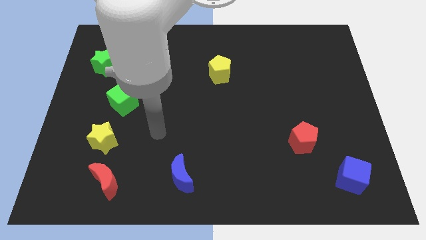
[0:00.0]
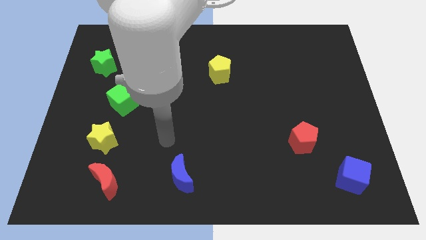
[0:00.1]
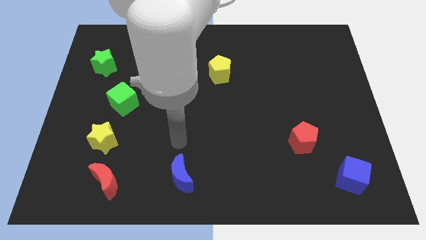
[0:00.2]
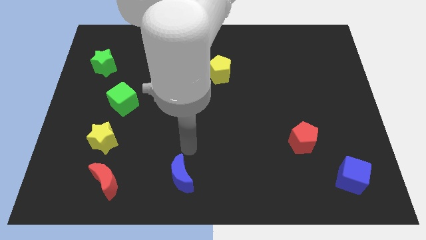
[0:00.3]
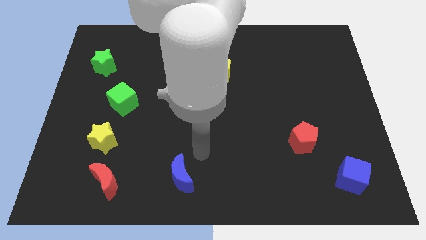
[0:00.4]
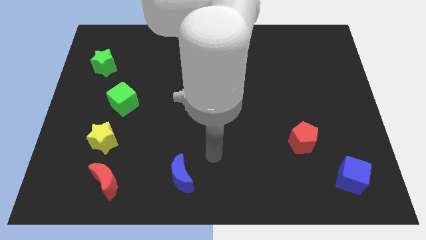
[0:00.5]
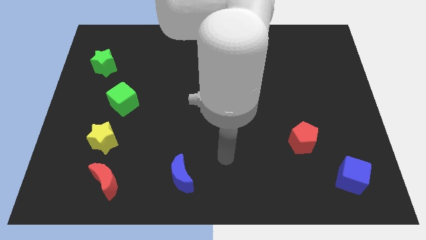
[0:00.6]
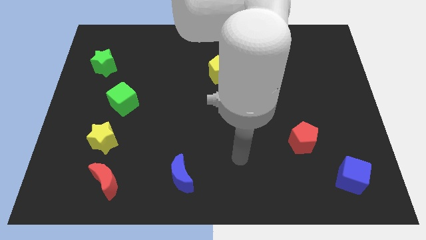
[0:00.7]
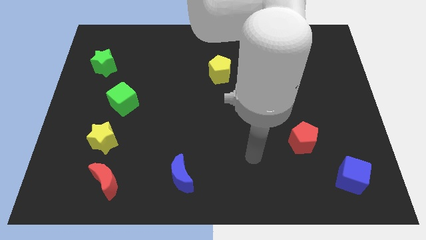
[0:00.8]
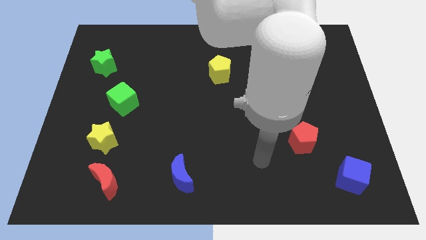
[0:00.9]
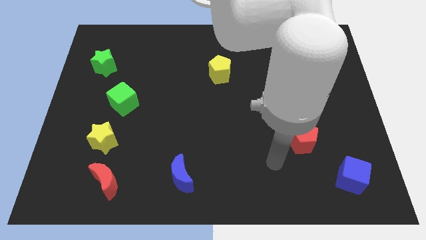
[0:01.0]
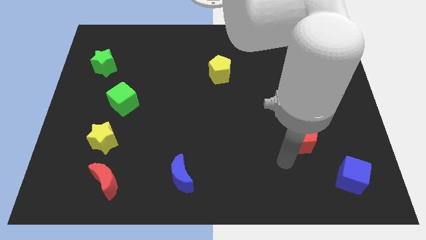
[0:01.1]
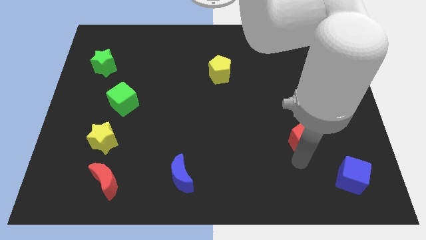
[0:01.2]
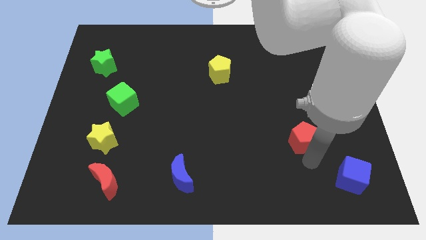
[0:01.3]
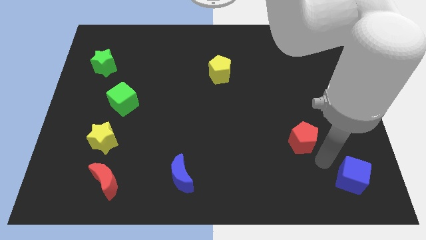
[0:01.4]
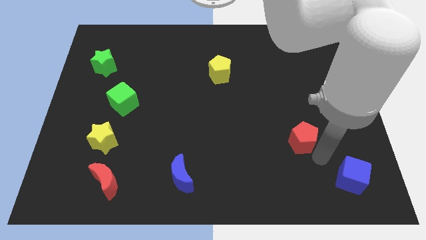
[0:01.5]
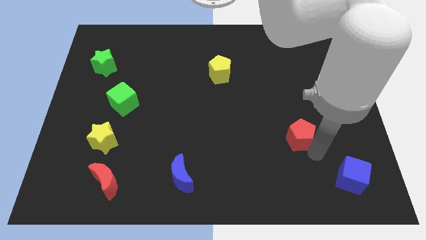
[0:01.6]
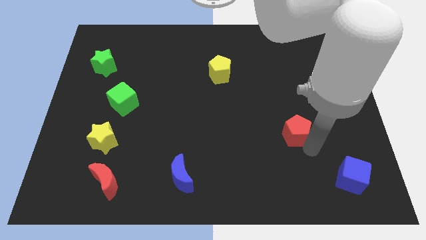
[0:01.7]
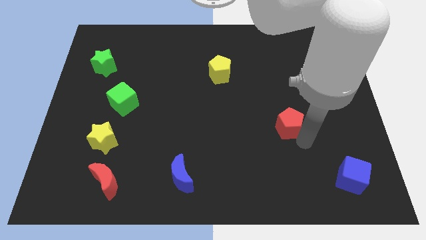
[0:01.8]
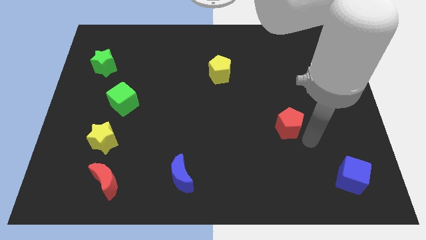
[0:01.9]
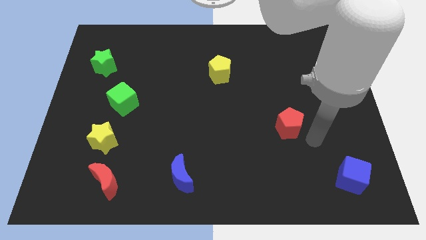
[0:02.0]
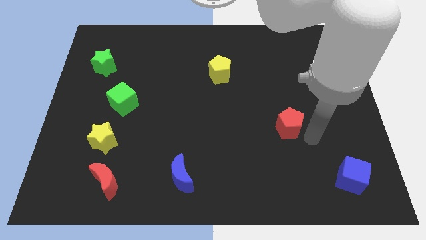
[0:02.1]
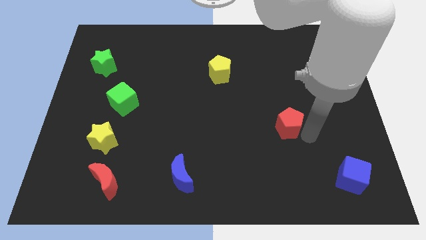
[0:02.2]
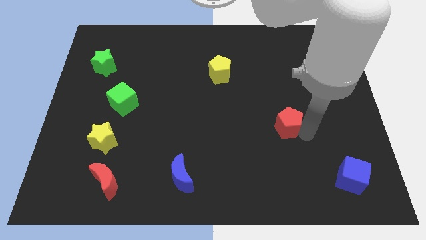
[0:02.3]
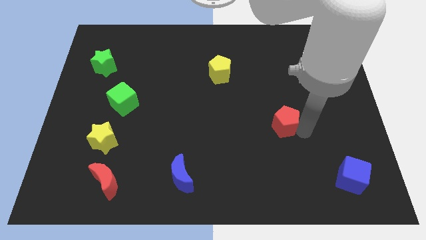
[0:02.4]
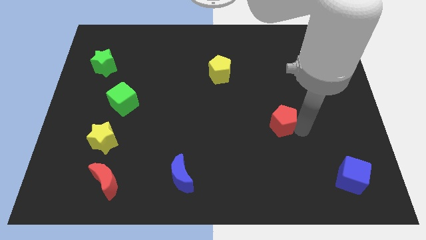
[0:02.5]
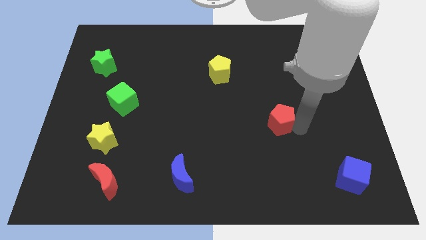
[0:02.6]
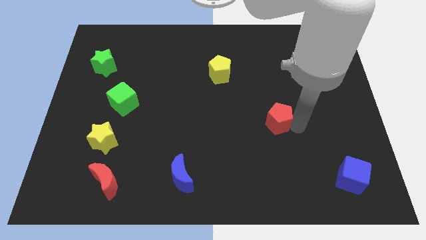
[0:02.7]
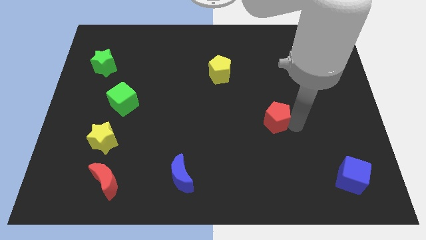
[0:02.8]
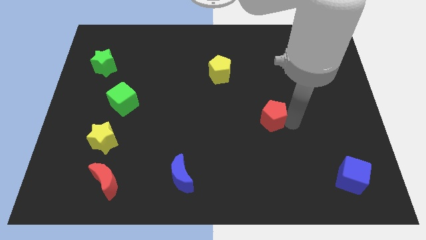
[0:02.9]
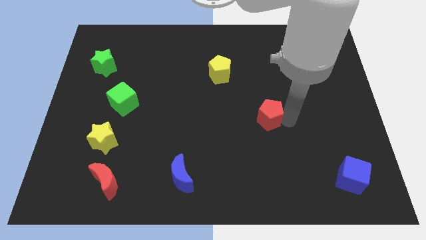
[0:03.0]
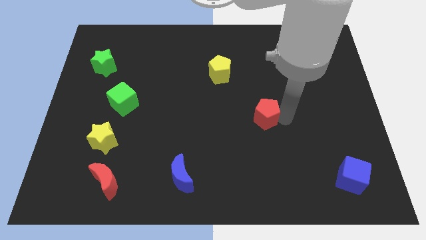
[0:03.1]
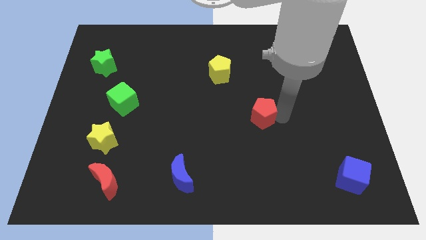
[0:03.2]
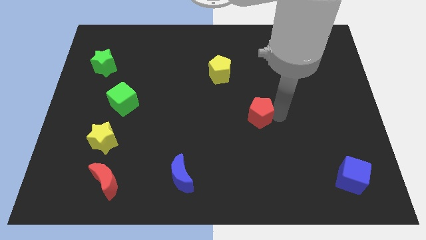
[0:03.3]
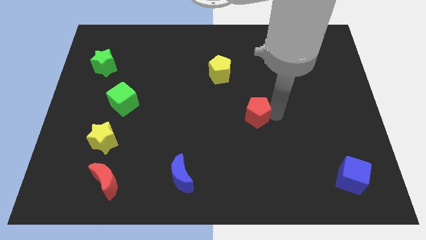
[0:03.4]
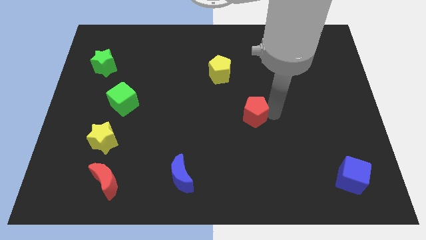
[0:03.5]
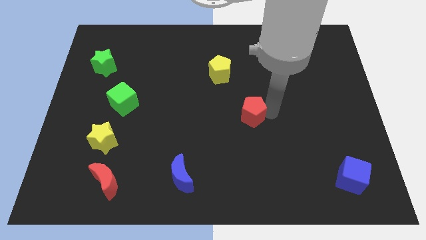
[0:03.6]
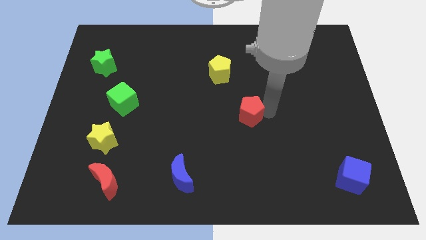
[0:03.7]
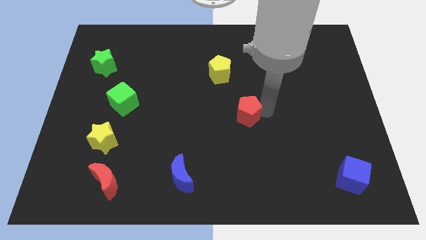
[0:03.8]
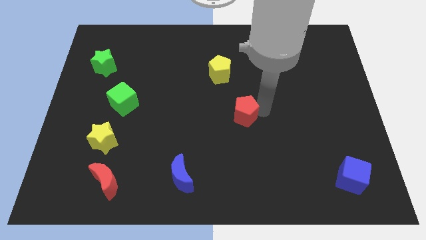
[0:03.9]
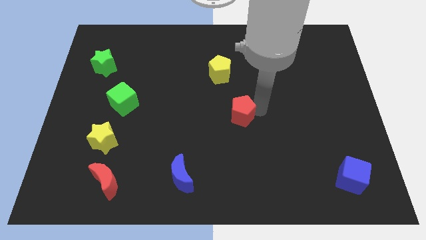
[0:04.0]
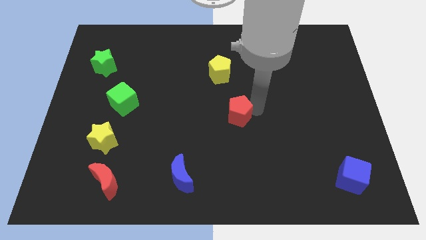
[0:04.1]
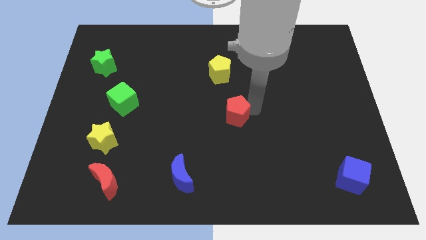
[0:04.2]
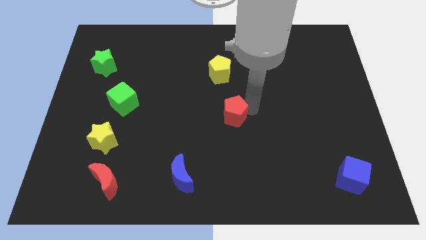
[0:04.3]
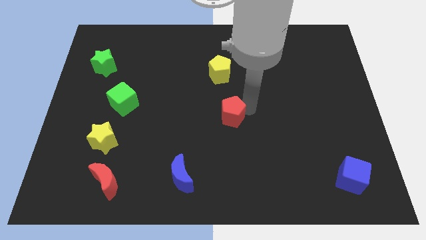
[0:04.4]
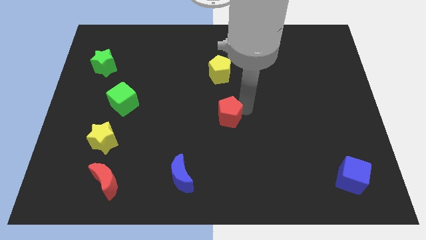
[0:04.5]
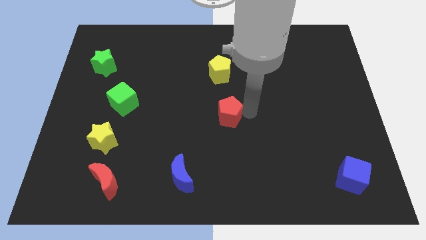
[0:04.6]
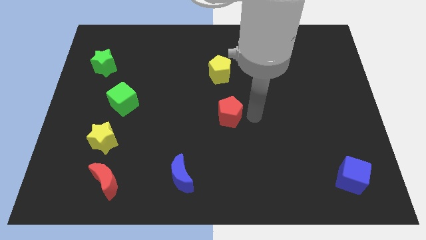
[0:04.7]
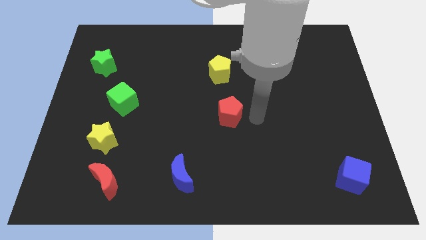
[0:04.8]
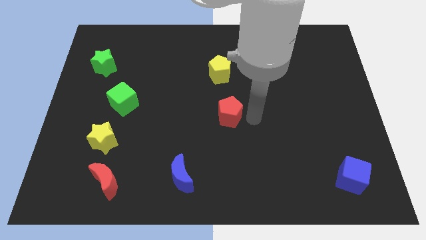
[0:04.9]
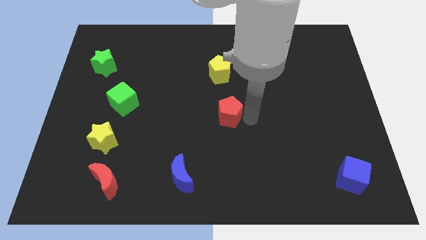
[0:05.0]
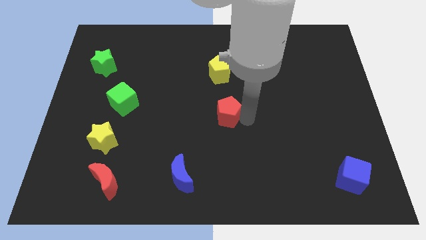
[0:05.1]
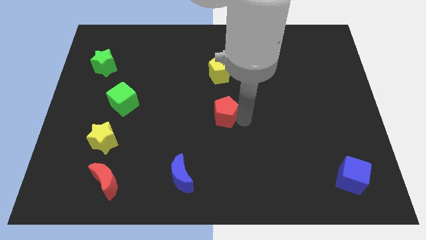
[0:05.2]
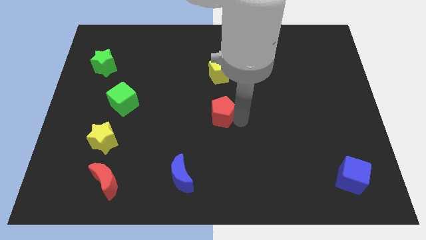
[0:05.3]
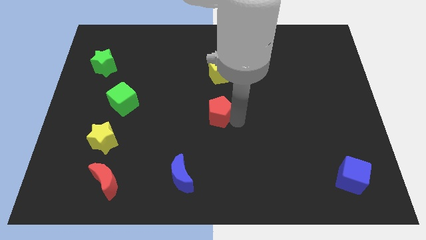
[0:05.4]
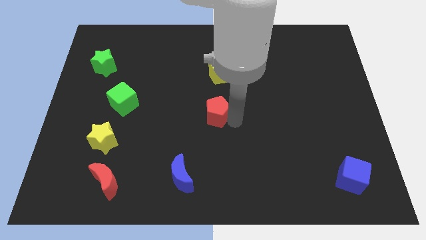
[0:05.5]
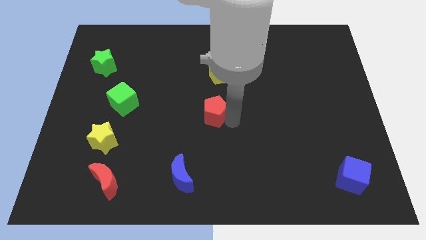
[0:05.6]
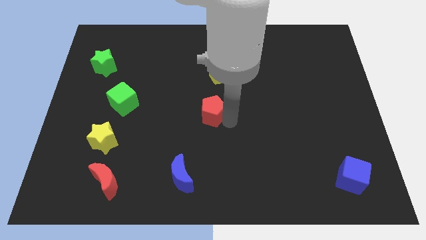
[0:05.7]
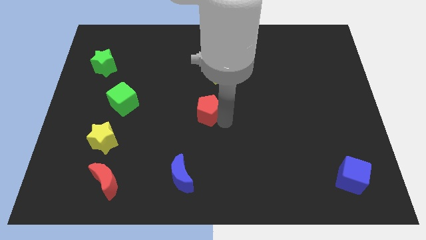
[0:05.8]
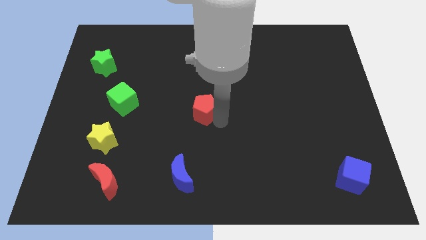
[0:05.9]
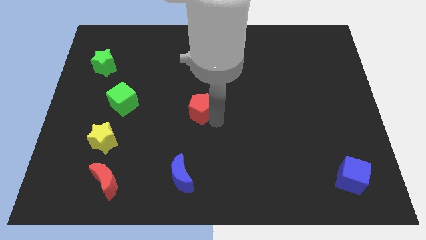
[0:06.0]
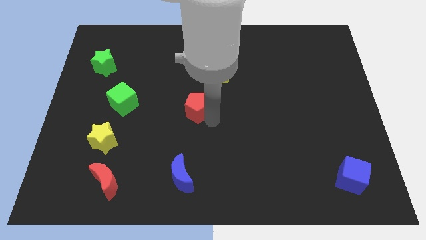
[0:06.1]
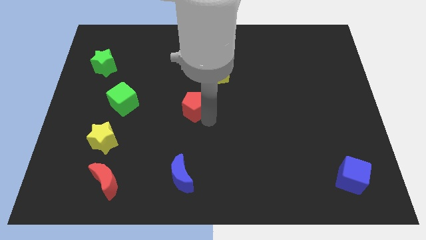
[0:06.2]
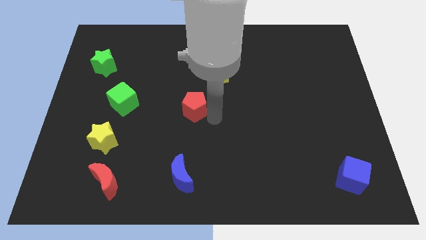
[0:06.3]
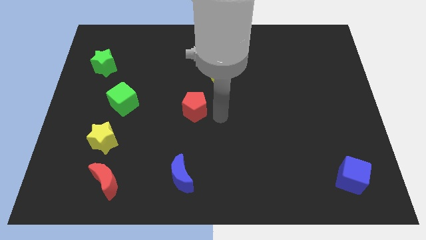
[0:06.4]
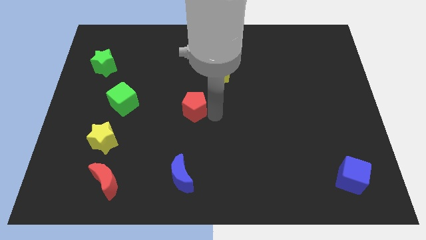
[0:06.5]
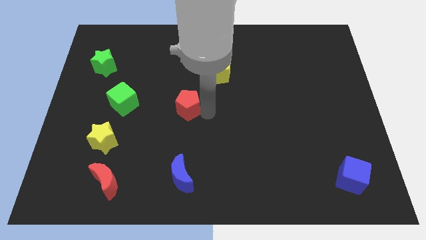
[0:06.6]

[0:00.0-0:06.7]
put the red pentagon to the right side of the green cube

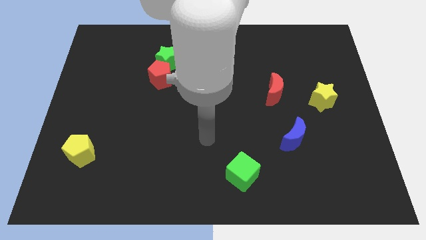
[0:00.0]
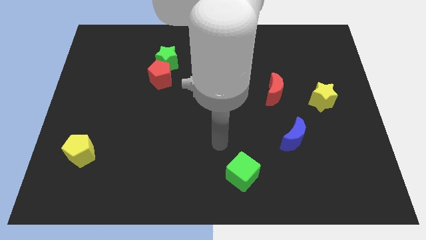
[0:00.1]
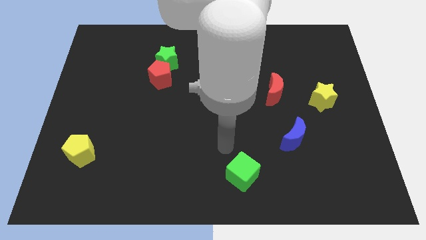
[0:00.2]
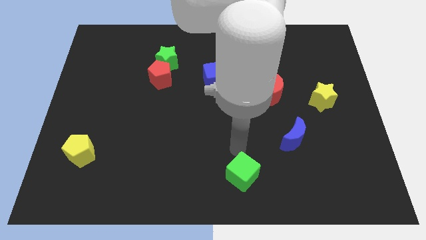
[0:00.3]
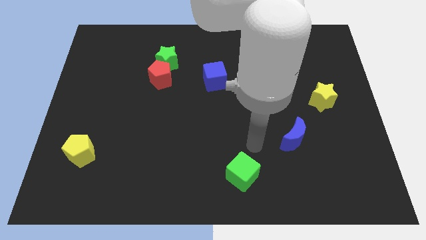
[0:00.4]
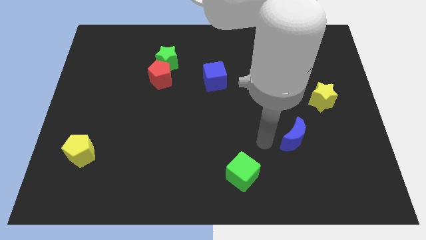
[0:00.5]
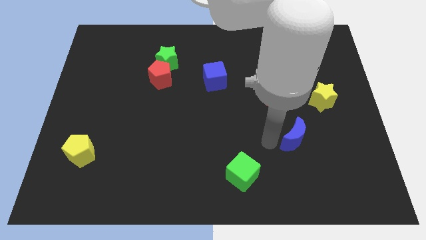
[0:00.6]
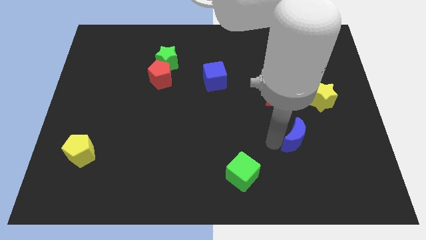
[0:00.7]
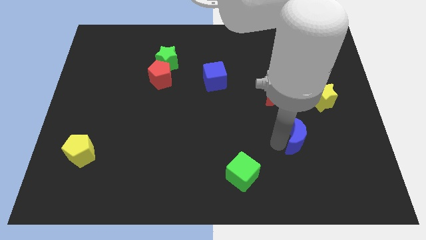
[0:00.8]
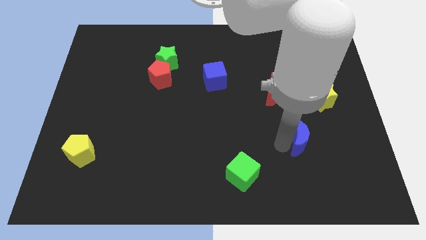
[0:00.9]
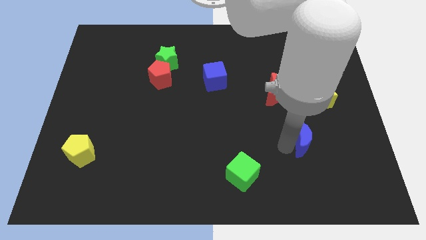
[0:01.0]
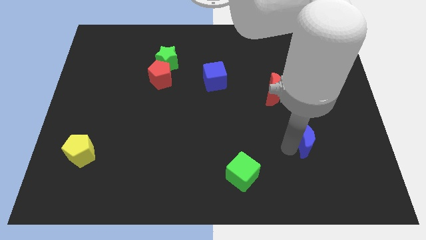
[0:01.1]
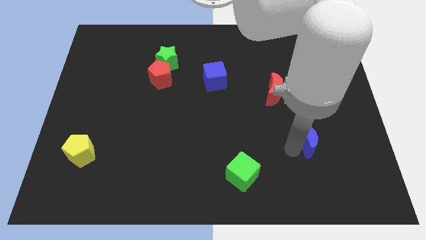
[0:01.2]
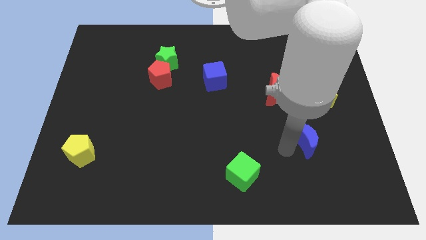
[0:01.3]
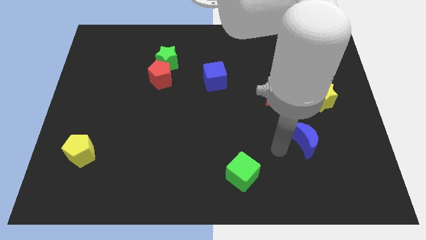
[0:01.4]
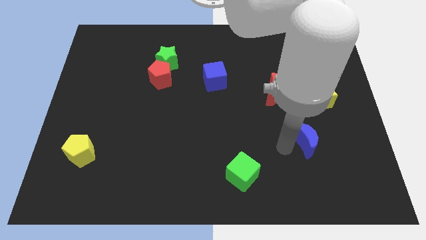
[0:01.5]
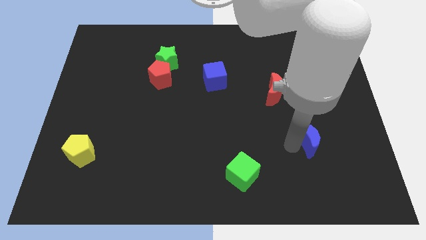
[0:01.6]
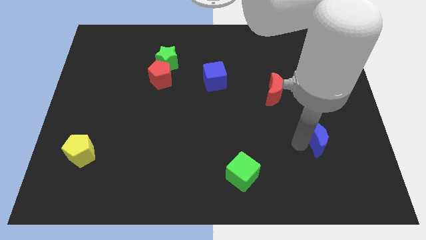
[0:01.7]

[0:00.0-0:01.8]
move the blue moon to the bottom side of the yellow star
